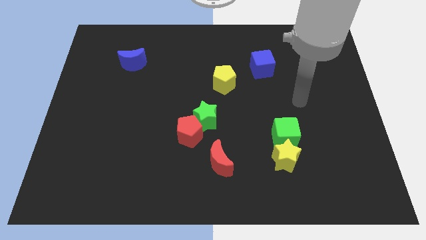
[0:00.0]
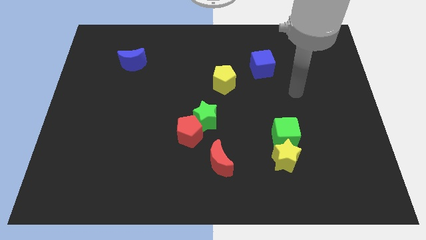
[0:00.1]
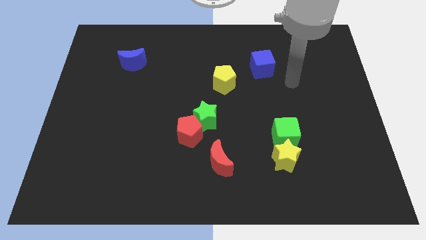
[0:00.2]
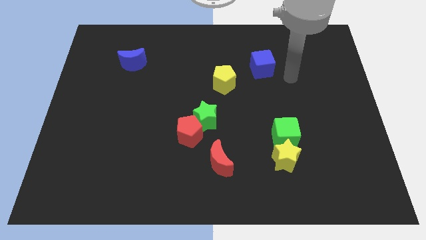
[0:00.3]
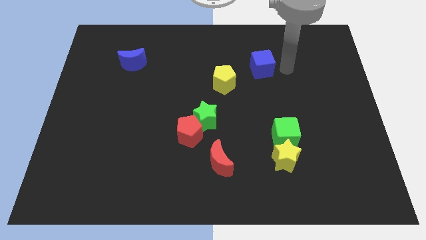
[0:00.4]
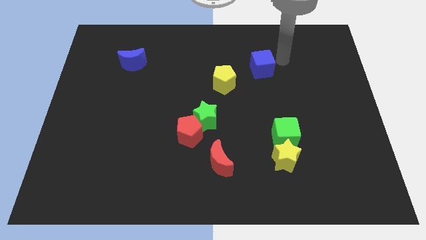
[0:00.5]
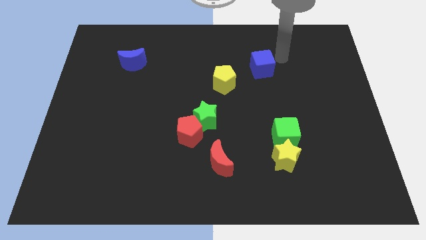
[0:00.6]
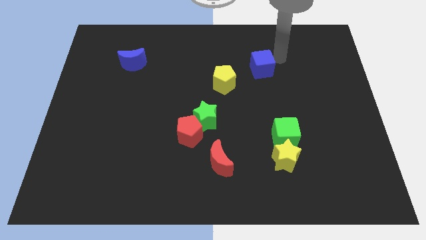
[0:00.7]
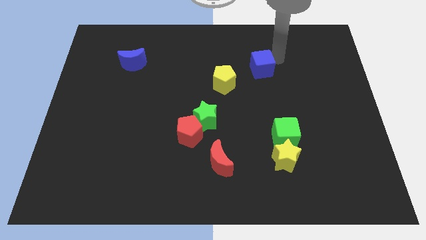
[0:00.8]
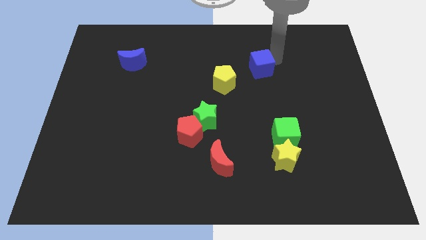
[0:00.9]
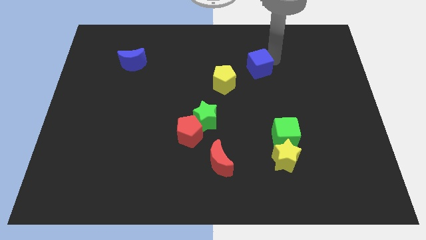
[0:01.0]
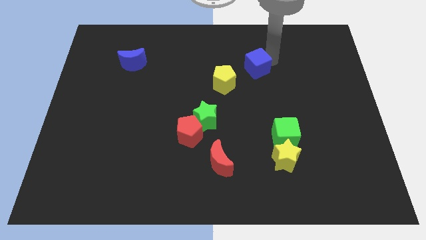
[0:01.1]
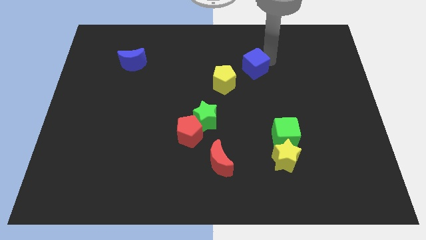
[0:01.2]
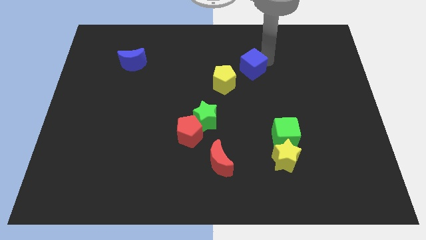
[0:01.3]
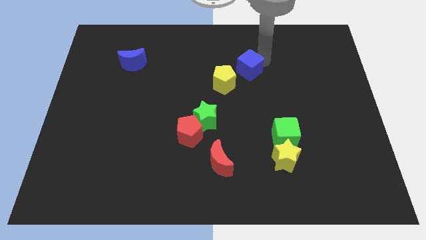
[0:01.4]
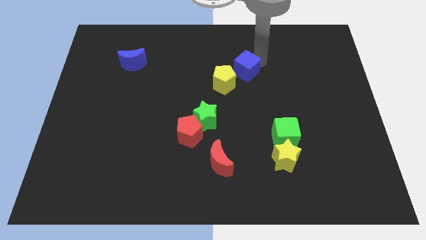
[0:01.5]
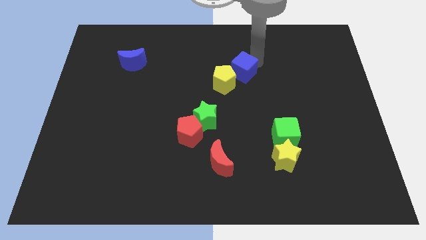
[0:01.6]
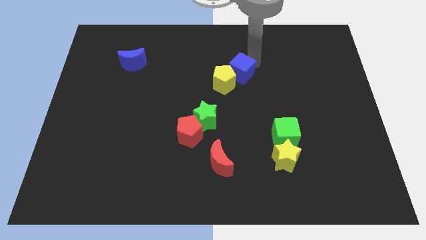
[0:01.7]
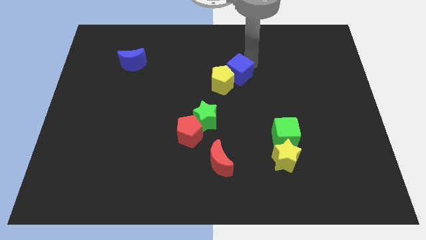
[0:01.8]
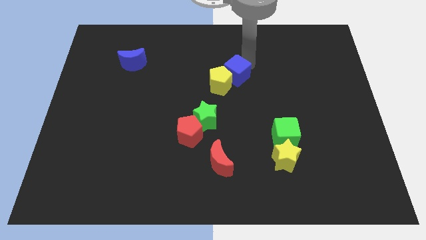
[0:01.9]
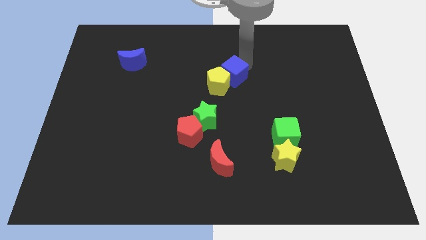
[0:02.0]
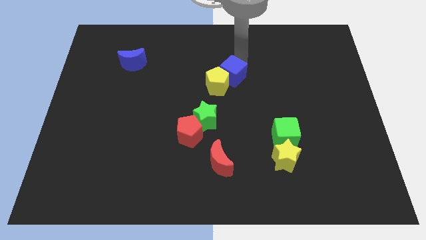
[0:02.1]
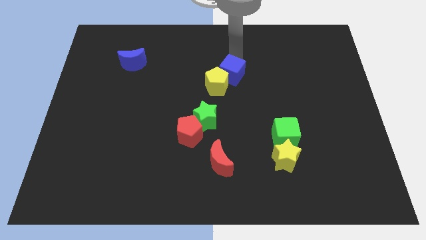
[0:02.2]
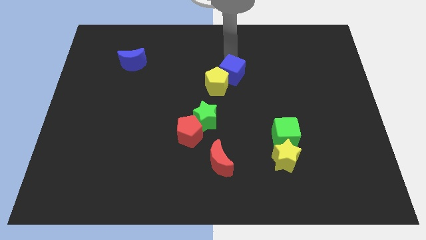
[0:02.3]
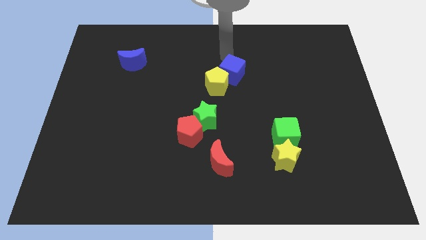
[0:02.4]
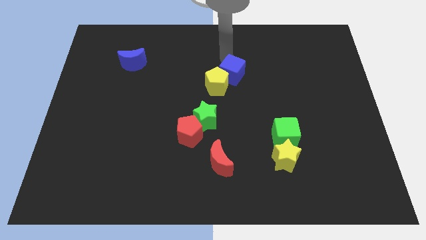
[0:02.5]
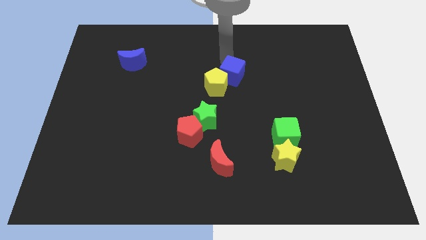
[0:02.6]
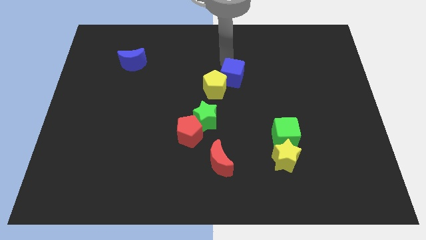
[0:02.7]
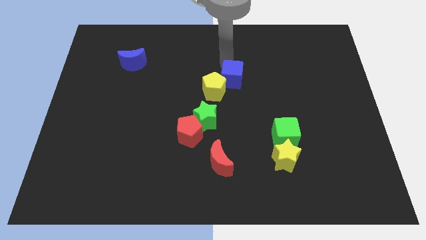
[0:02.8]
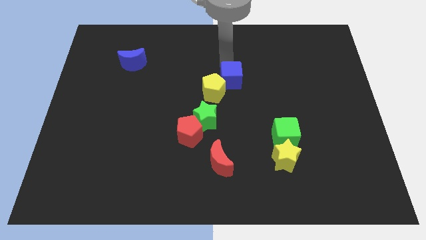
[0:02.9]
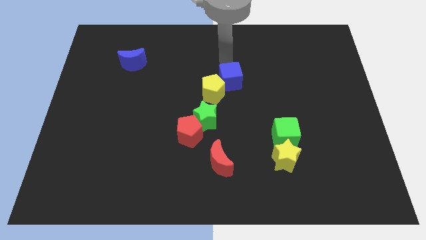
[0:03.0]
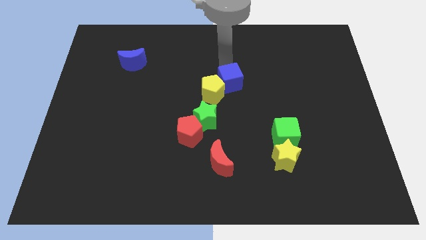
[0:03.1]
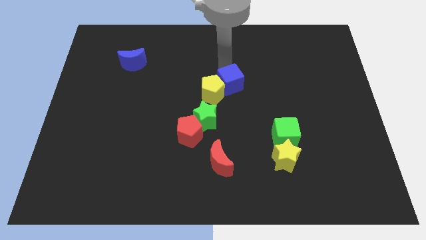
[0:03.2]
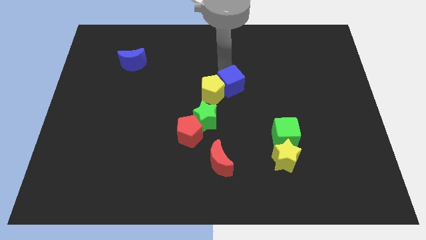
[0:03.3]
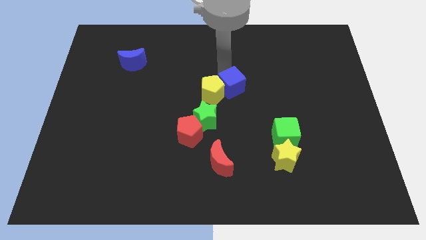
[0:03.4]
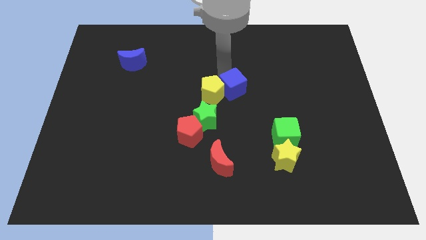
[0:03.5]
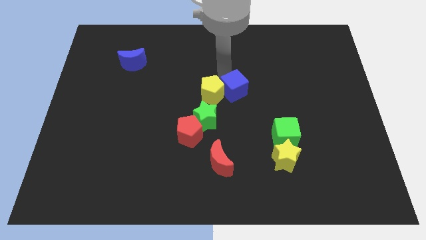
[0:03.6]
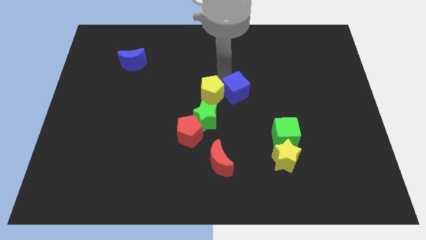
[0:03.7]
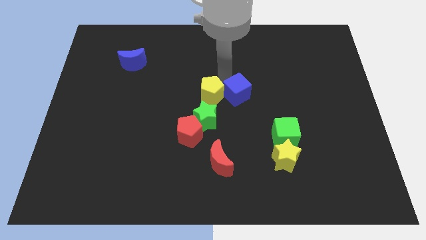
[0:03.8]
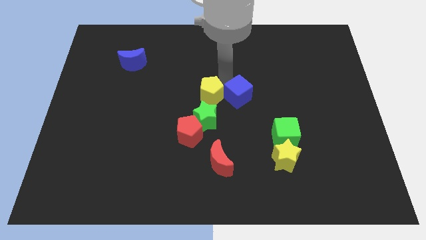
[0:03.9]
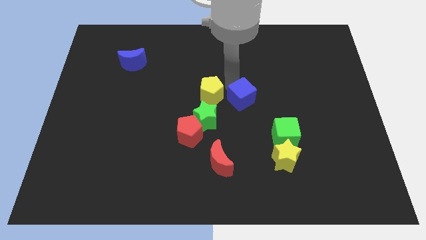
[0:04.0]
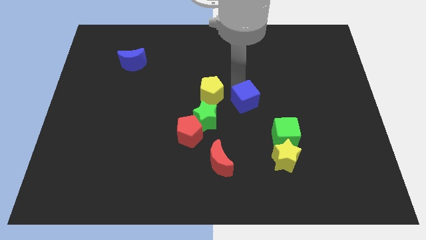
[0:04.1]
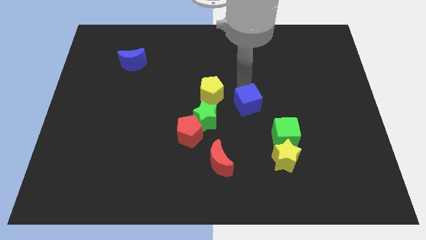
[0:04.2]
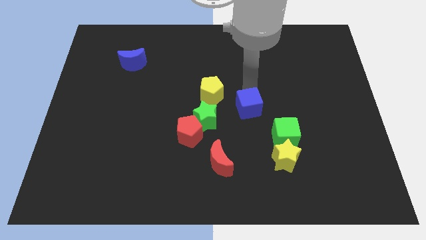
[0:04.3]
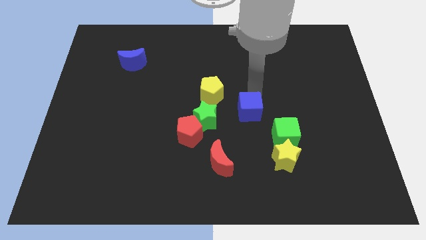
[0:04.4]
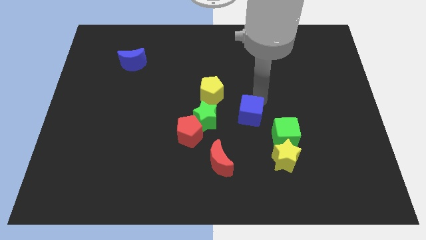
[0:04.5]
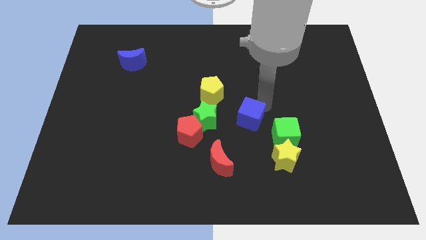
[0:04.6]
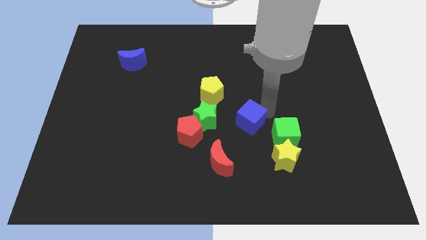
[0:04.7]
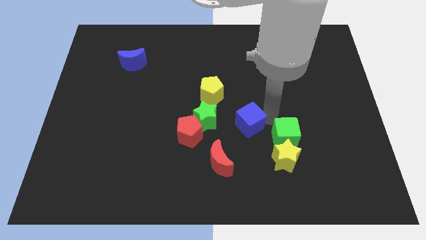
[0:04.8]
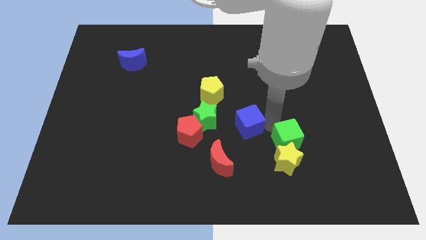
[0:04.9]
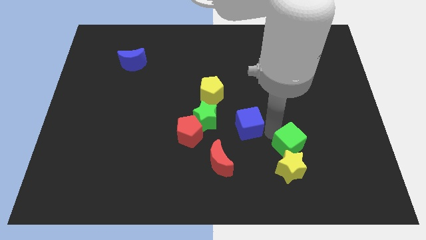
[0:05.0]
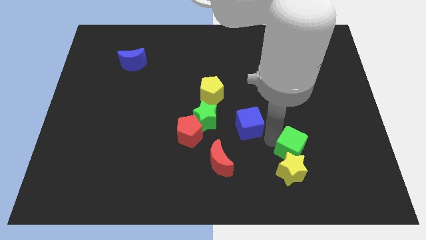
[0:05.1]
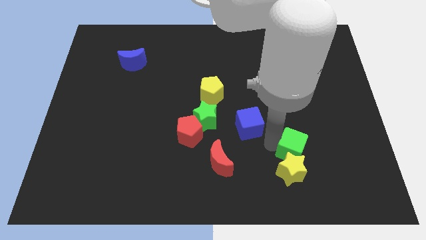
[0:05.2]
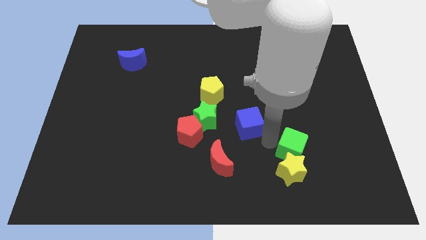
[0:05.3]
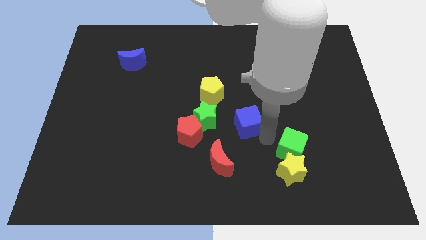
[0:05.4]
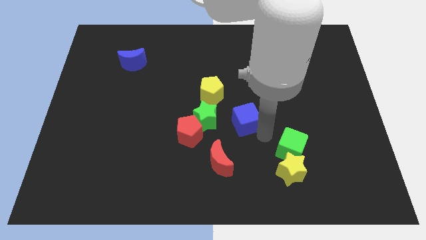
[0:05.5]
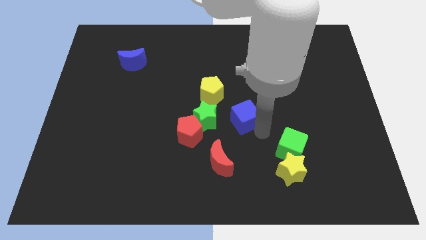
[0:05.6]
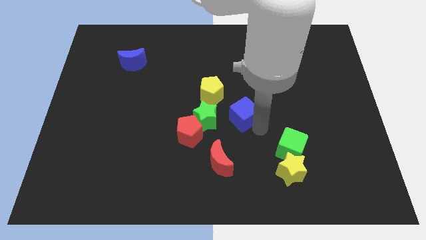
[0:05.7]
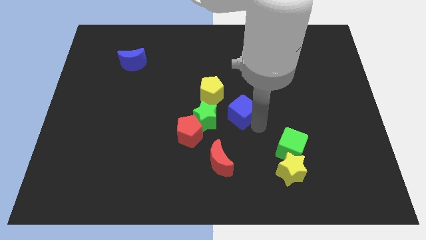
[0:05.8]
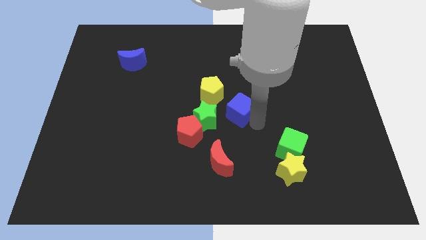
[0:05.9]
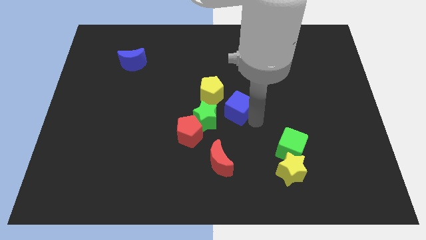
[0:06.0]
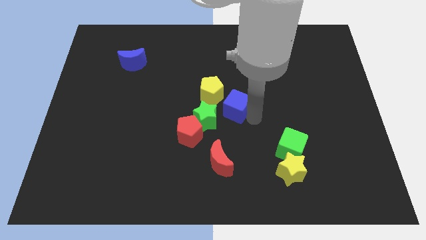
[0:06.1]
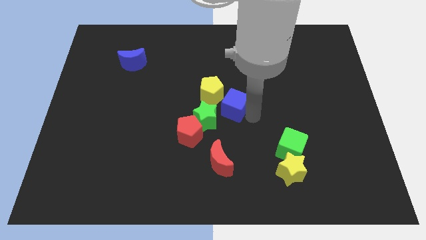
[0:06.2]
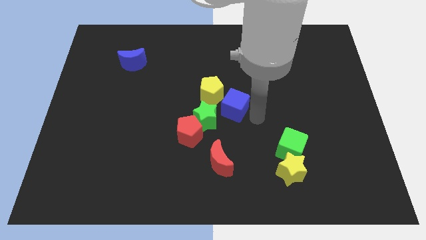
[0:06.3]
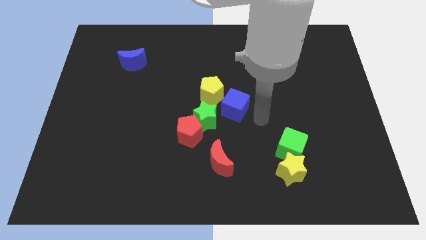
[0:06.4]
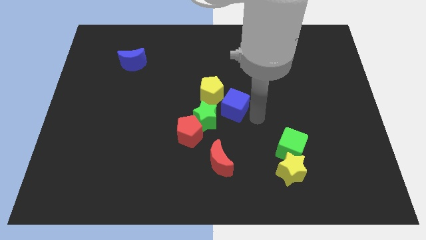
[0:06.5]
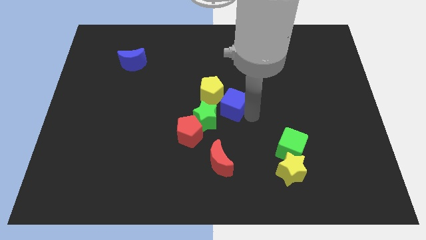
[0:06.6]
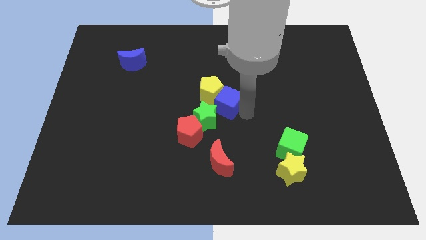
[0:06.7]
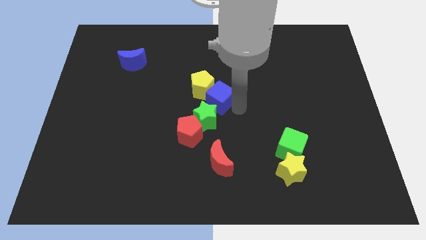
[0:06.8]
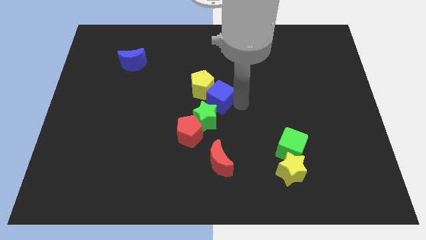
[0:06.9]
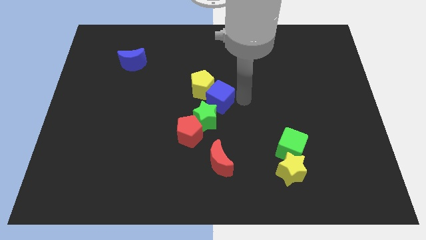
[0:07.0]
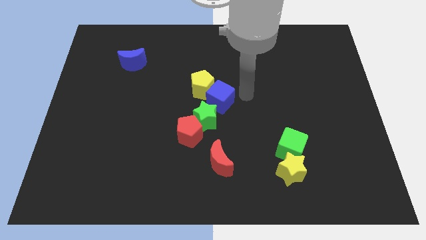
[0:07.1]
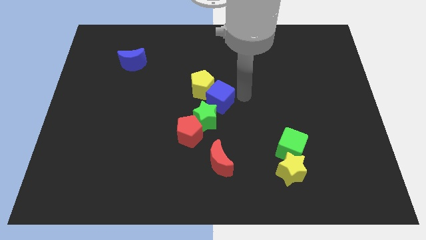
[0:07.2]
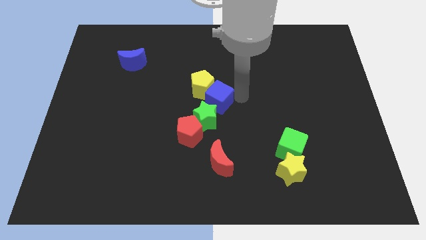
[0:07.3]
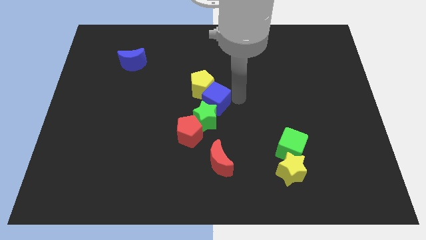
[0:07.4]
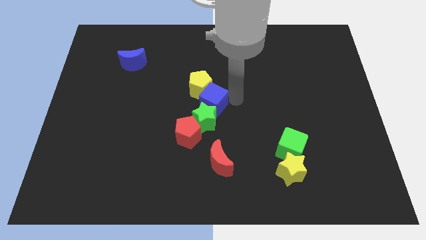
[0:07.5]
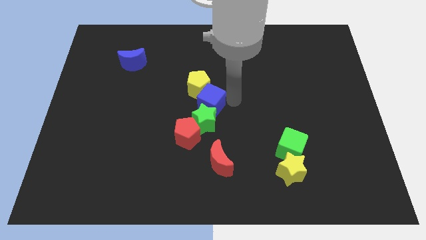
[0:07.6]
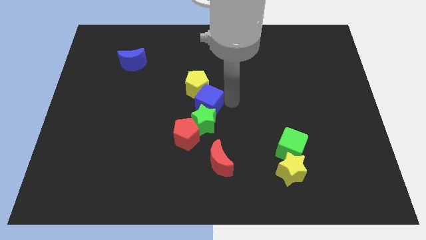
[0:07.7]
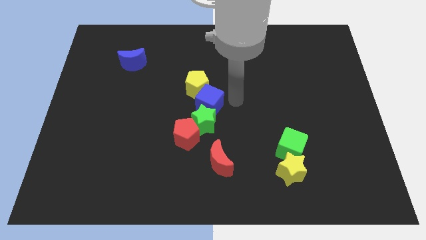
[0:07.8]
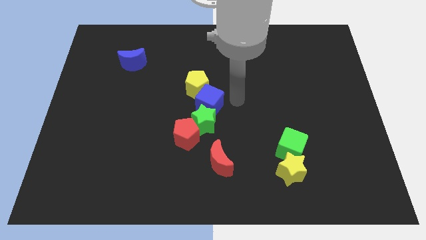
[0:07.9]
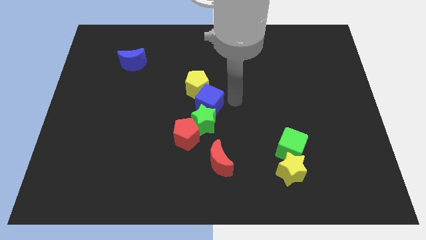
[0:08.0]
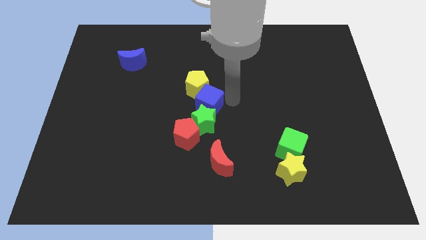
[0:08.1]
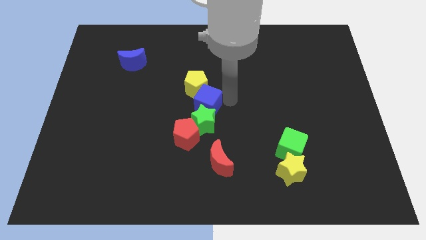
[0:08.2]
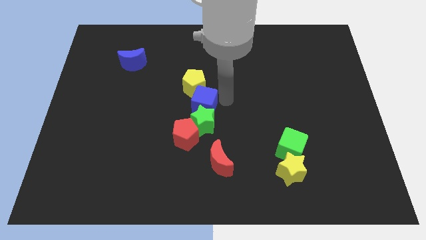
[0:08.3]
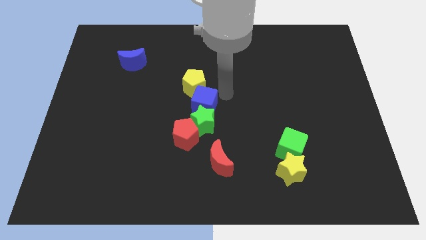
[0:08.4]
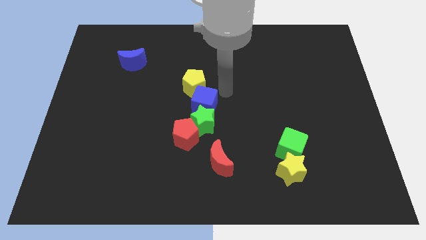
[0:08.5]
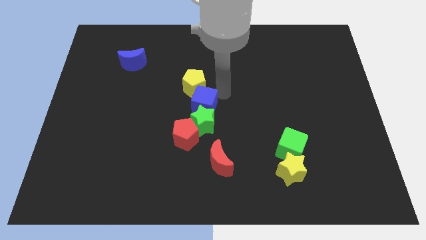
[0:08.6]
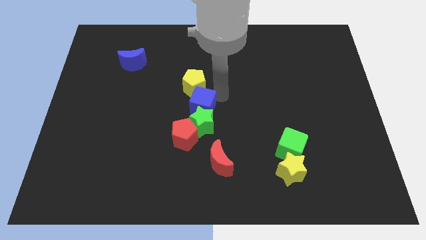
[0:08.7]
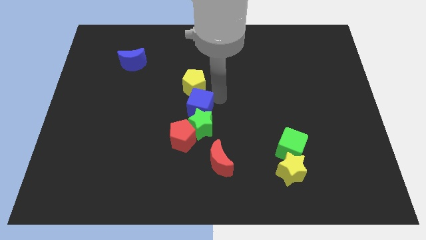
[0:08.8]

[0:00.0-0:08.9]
push the blue cube down and left diagonally
